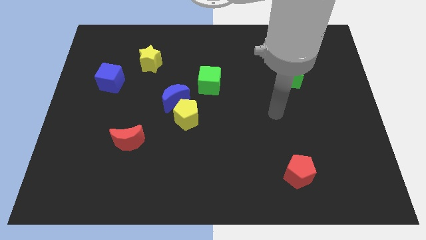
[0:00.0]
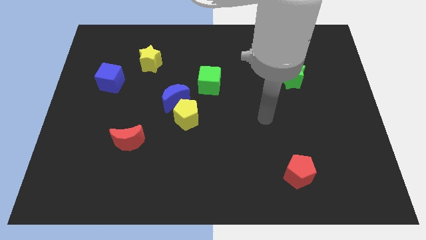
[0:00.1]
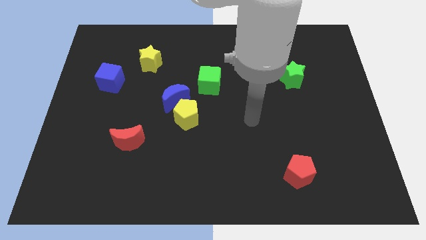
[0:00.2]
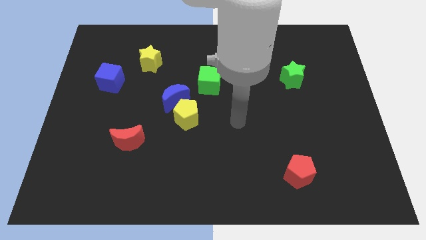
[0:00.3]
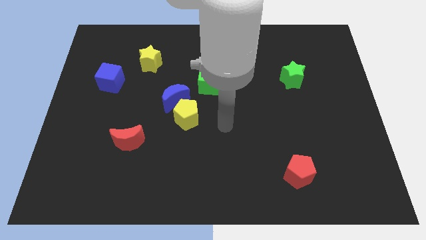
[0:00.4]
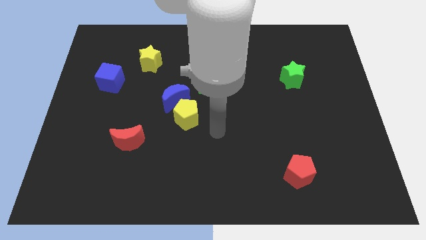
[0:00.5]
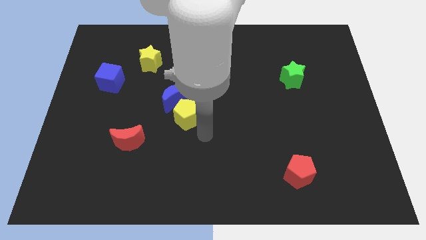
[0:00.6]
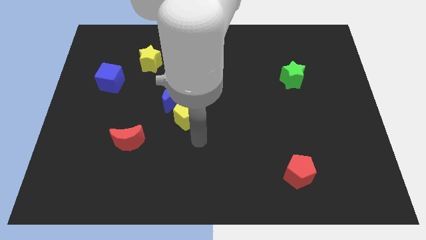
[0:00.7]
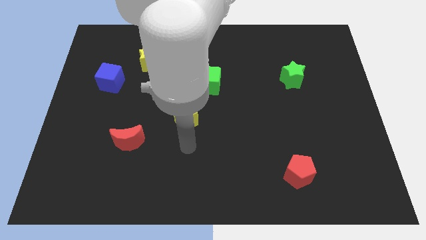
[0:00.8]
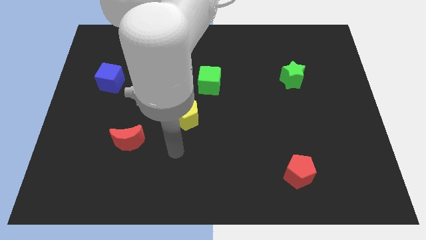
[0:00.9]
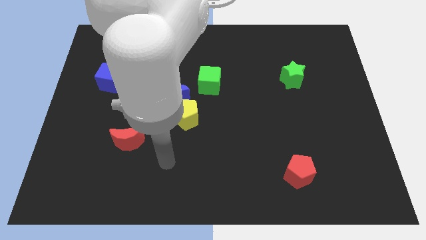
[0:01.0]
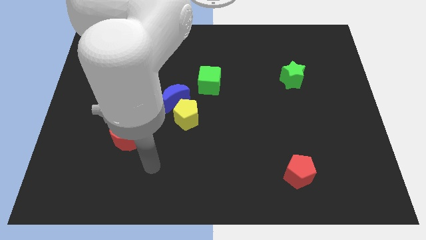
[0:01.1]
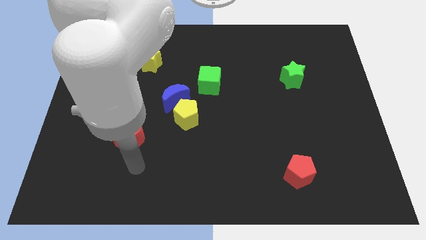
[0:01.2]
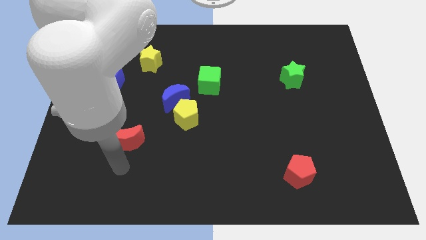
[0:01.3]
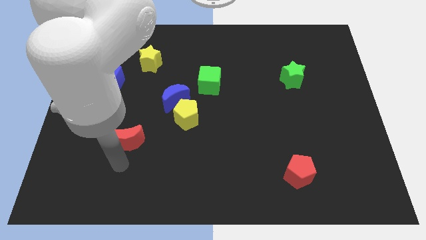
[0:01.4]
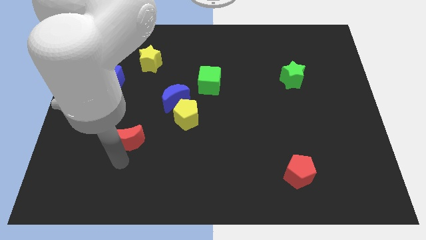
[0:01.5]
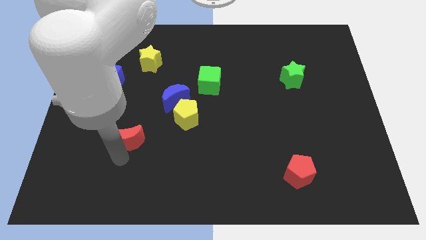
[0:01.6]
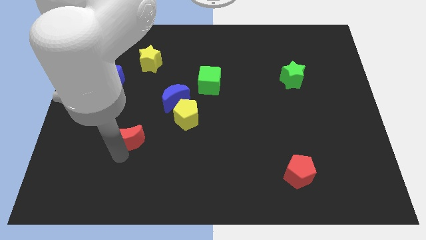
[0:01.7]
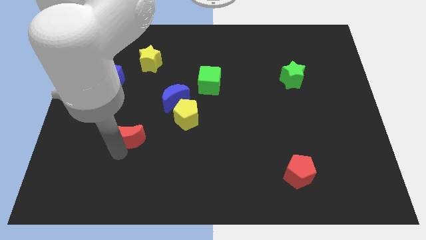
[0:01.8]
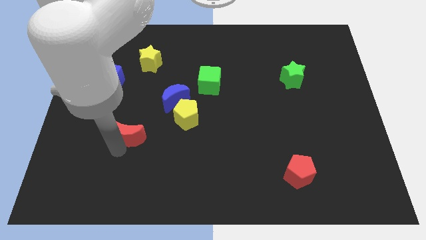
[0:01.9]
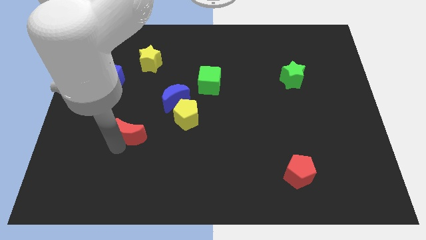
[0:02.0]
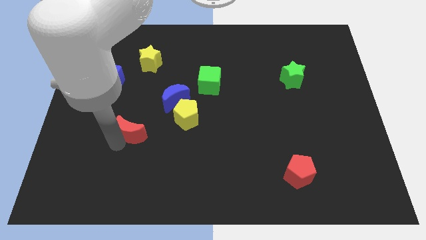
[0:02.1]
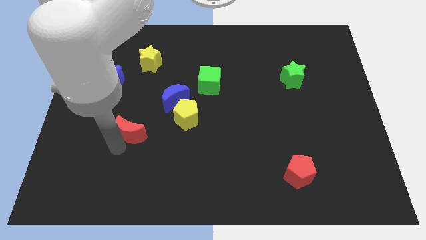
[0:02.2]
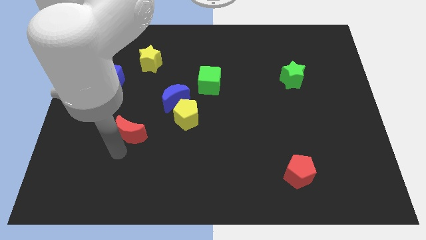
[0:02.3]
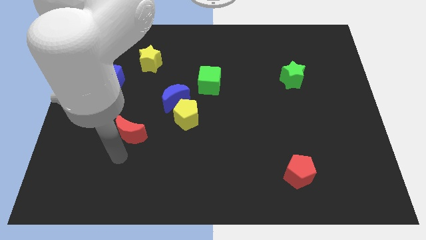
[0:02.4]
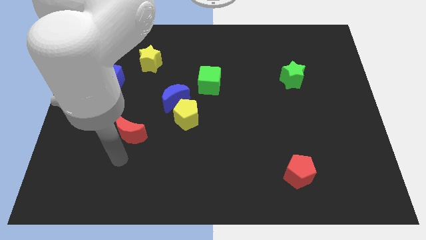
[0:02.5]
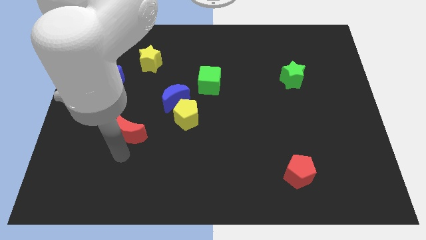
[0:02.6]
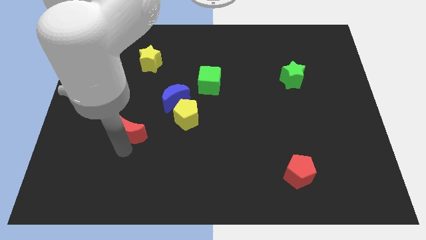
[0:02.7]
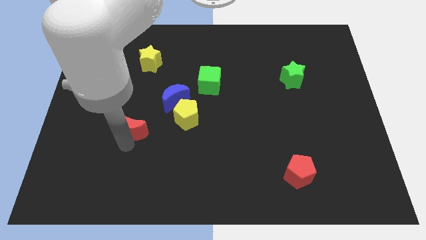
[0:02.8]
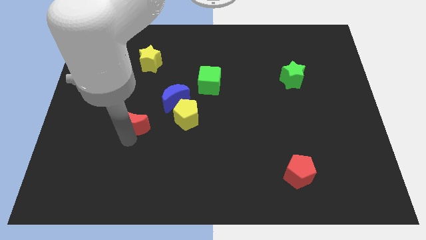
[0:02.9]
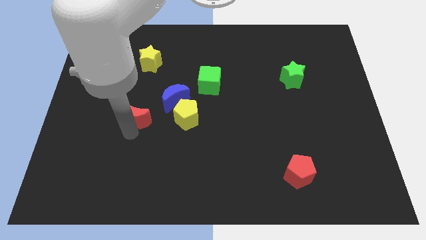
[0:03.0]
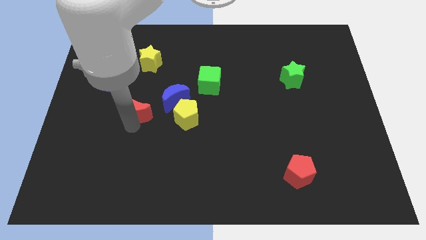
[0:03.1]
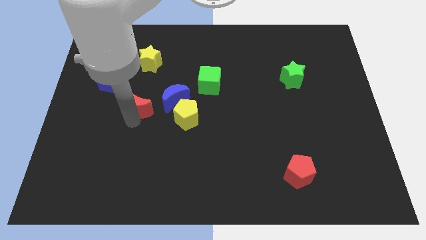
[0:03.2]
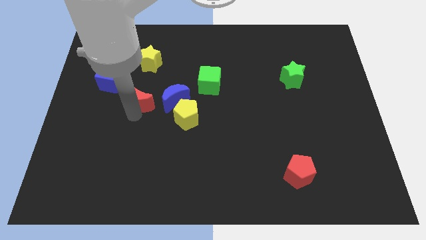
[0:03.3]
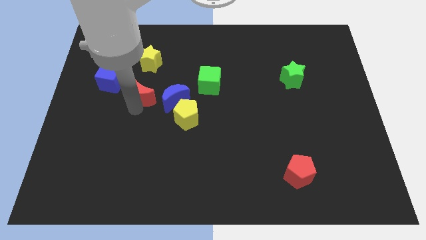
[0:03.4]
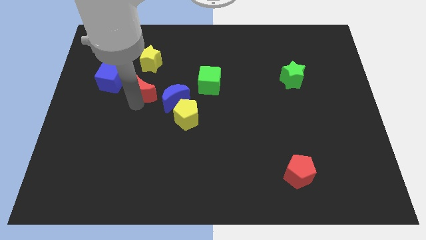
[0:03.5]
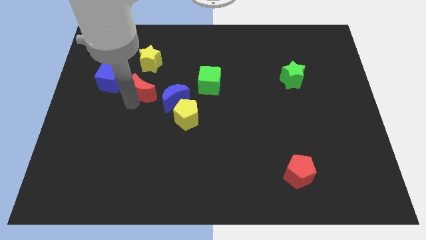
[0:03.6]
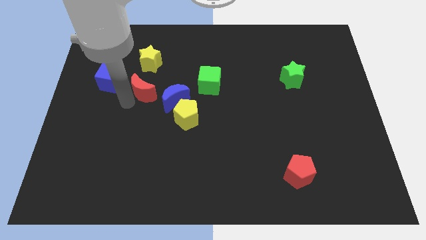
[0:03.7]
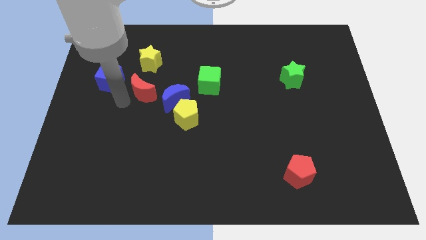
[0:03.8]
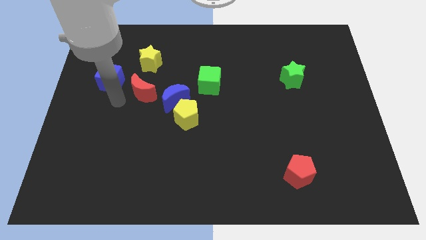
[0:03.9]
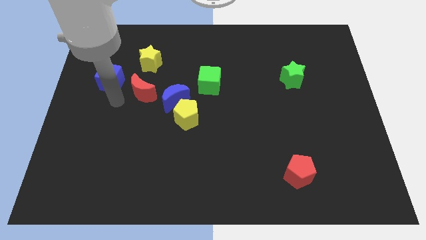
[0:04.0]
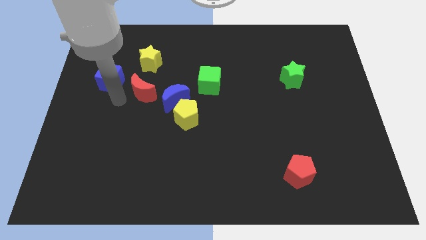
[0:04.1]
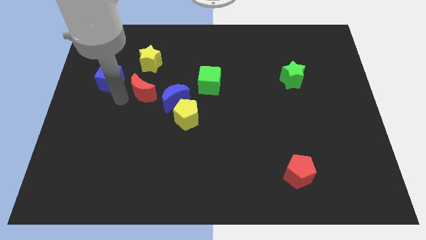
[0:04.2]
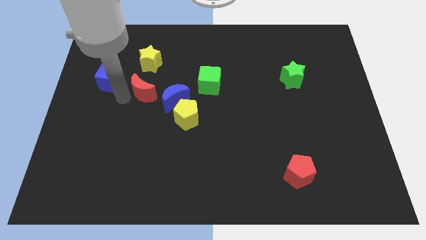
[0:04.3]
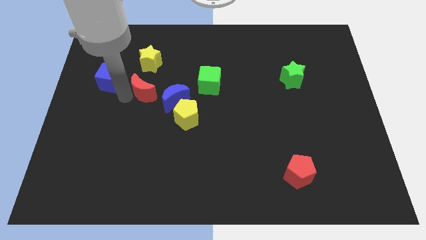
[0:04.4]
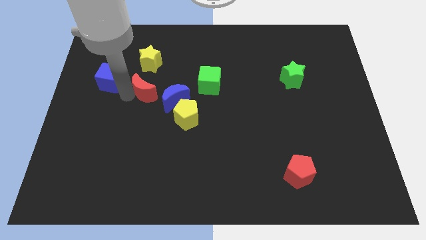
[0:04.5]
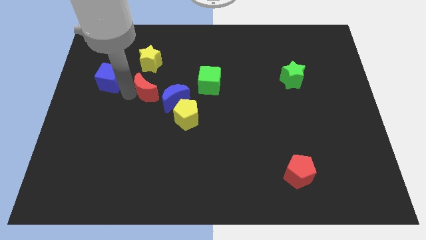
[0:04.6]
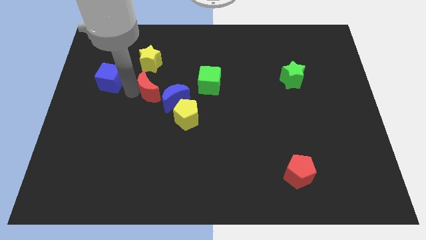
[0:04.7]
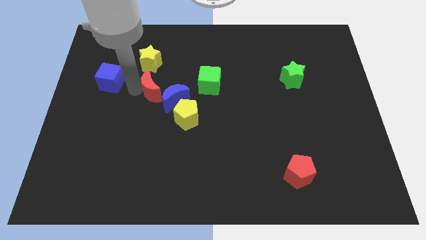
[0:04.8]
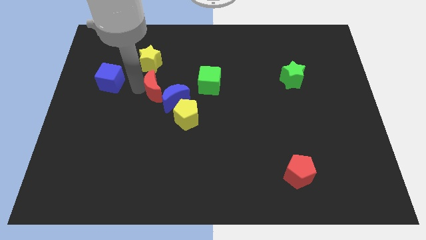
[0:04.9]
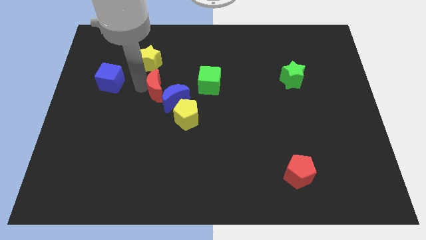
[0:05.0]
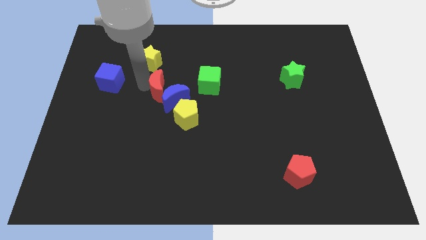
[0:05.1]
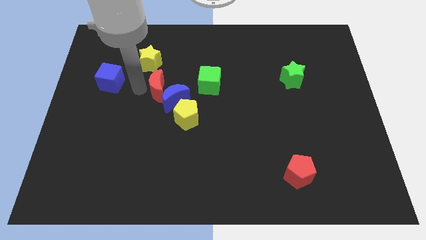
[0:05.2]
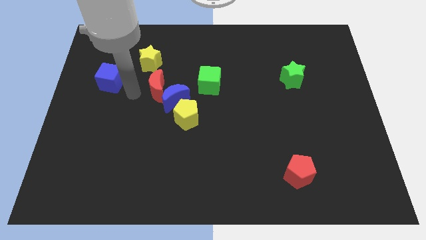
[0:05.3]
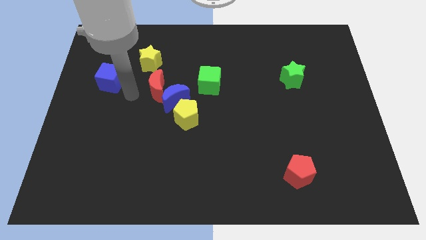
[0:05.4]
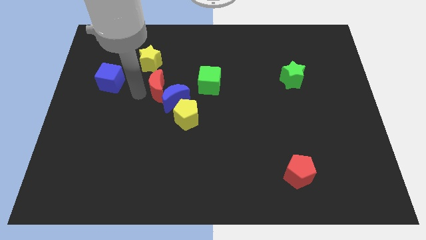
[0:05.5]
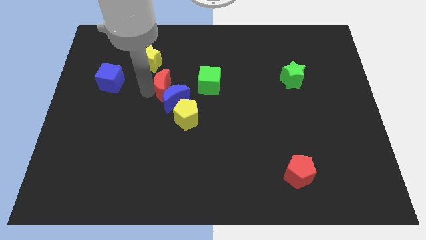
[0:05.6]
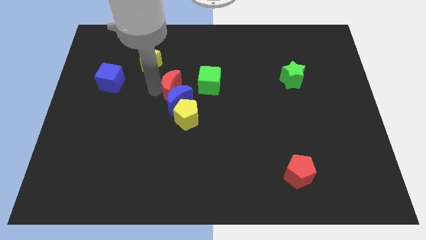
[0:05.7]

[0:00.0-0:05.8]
push the red moon above the yellow pentagon

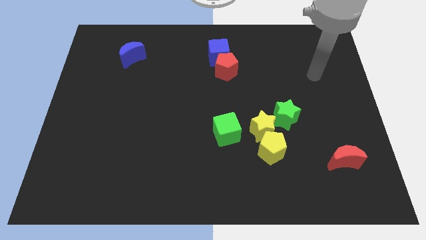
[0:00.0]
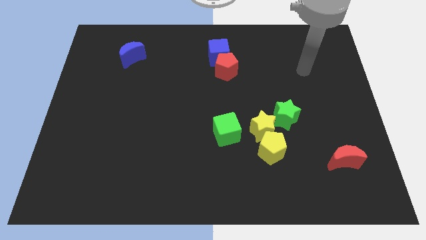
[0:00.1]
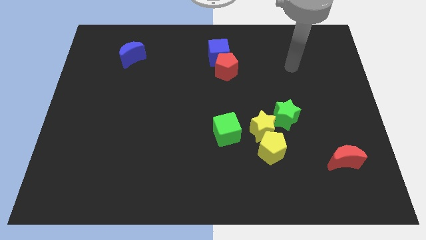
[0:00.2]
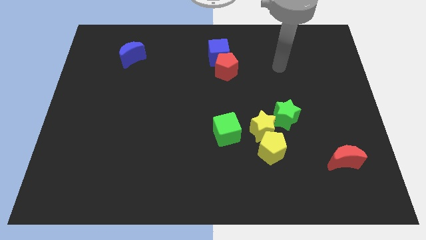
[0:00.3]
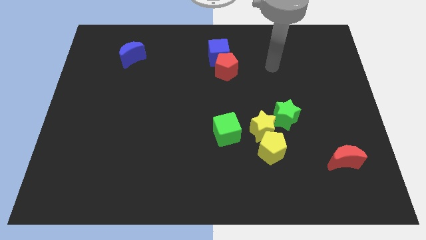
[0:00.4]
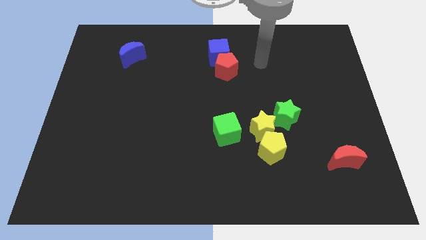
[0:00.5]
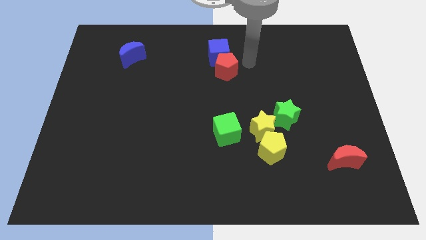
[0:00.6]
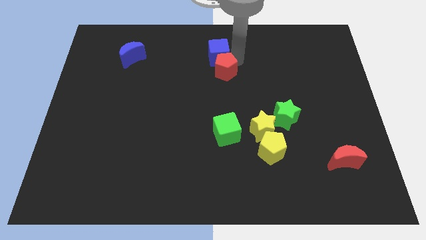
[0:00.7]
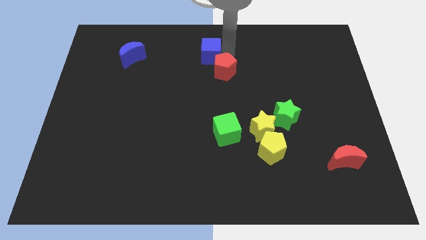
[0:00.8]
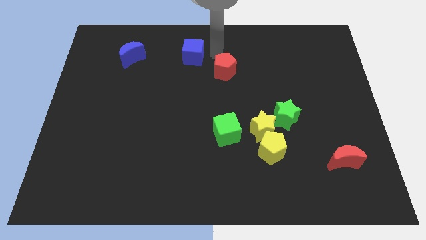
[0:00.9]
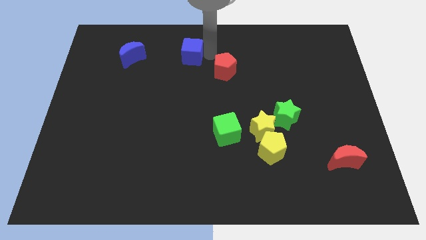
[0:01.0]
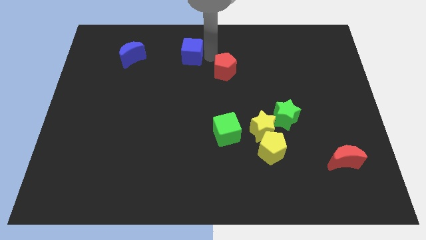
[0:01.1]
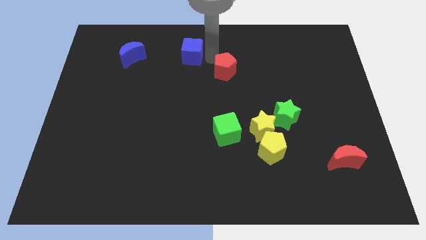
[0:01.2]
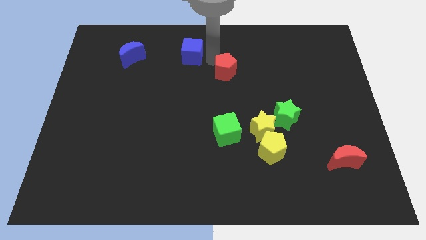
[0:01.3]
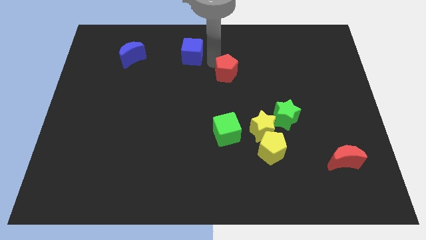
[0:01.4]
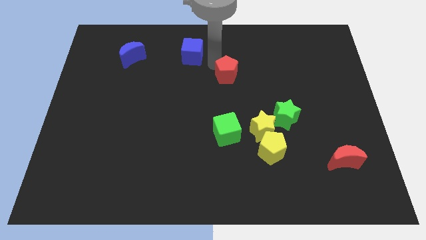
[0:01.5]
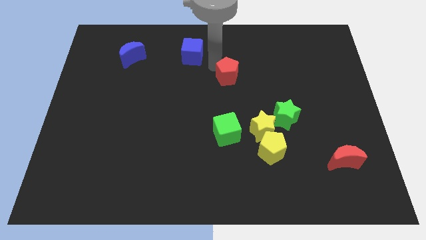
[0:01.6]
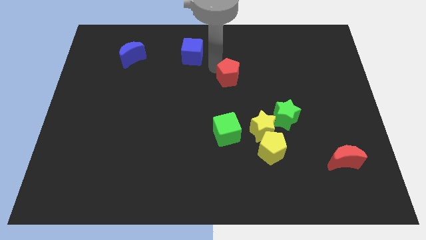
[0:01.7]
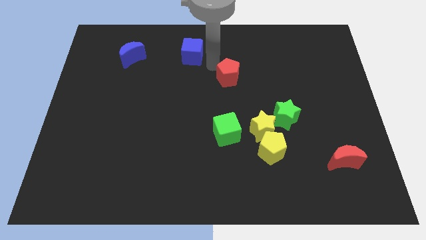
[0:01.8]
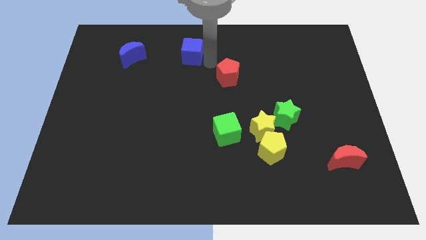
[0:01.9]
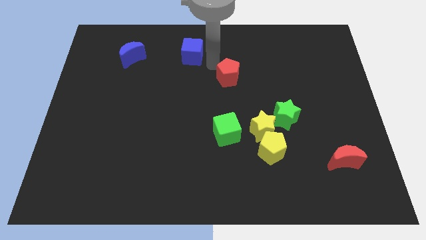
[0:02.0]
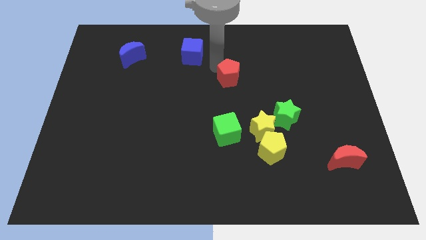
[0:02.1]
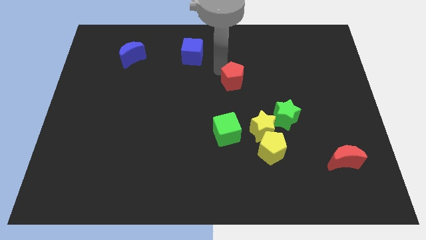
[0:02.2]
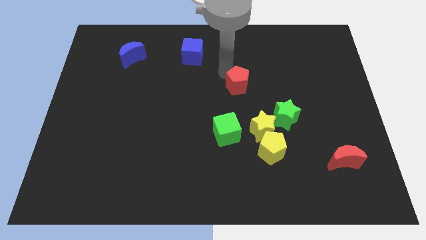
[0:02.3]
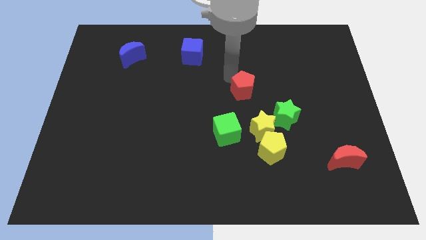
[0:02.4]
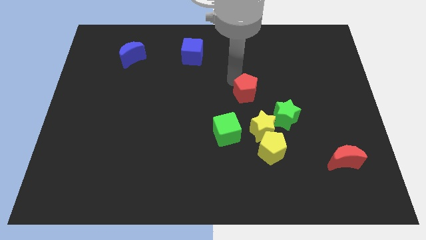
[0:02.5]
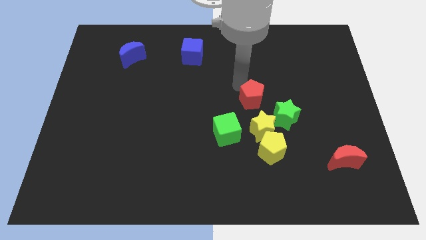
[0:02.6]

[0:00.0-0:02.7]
push the red pentagon to the top of the yellow pentagon
